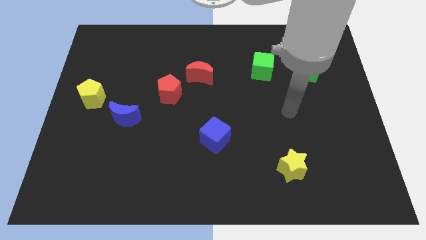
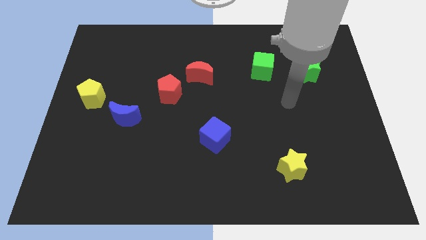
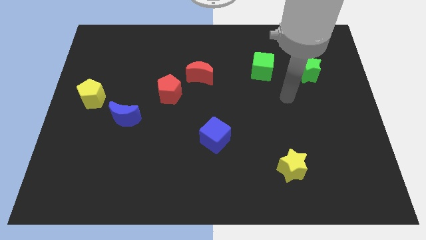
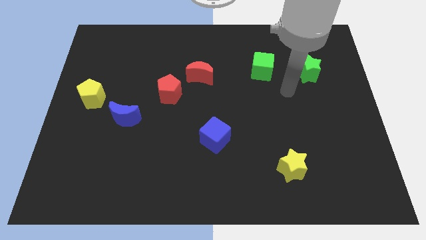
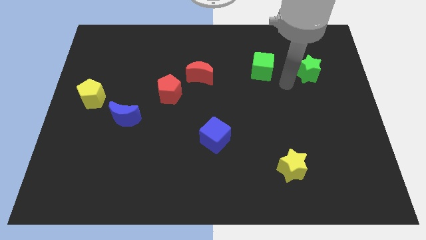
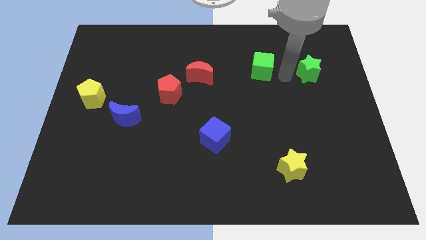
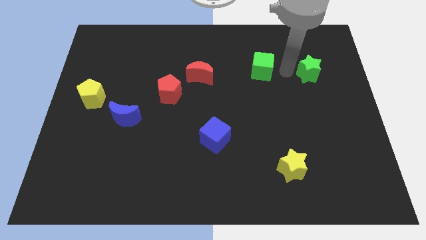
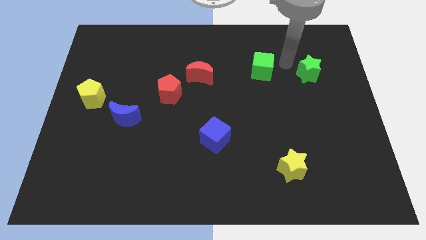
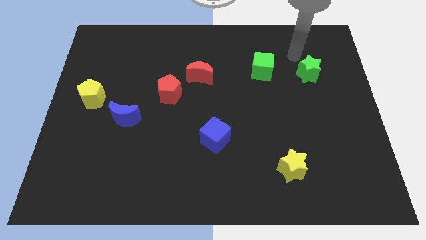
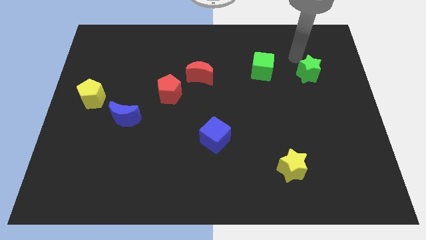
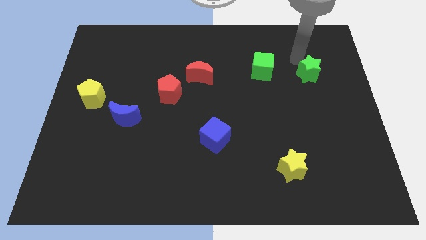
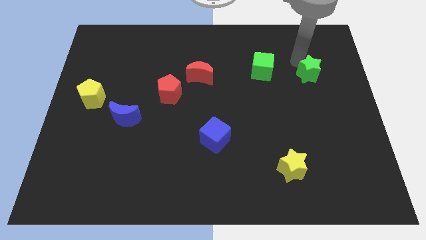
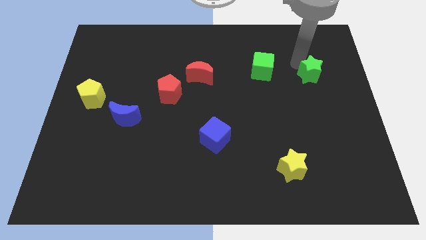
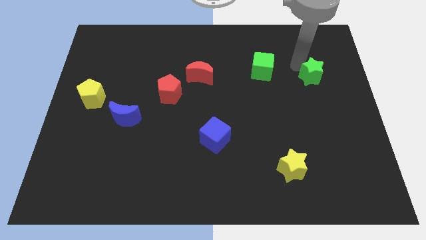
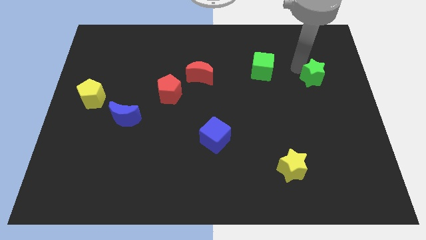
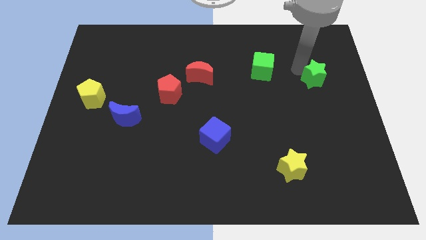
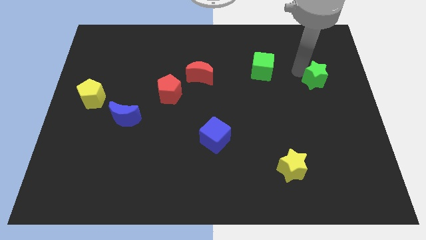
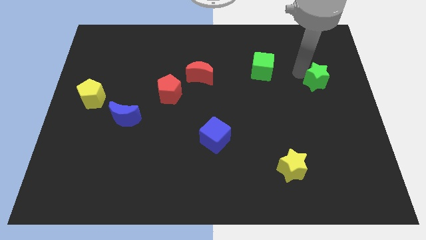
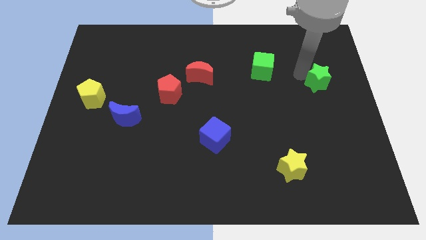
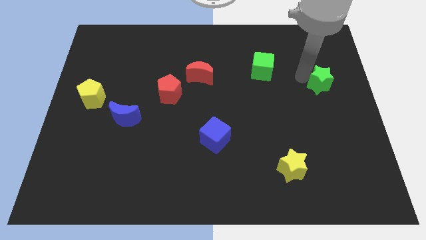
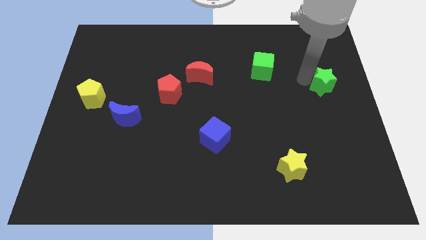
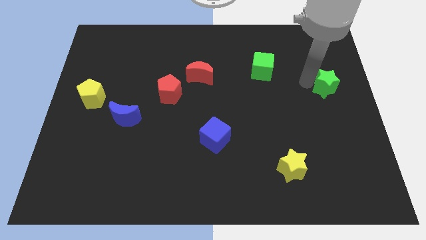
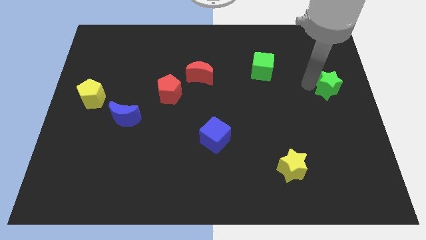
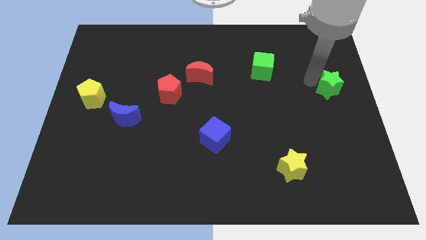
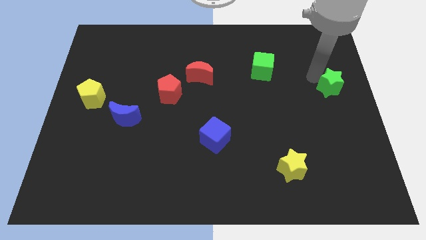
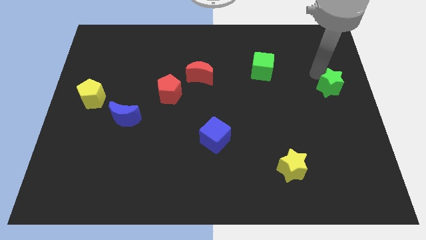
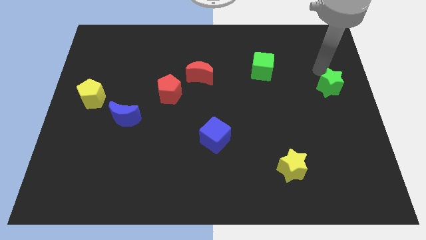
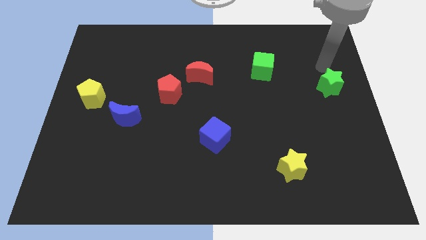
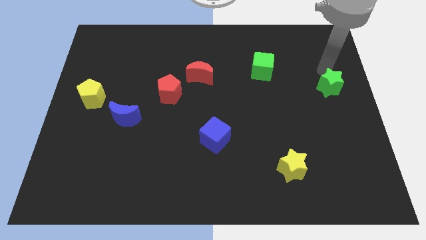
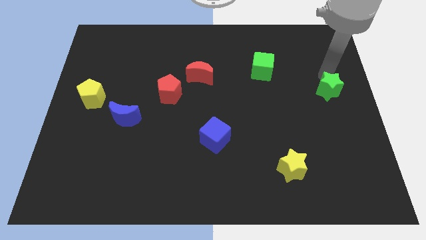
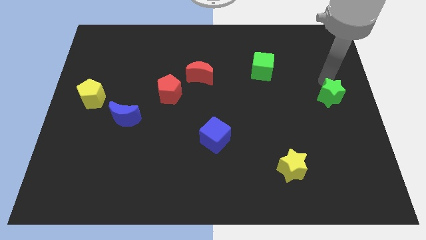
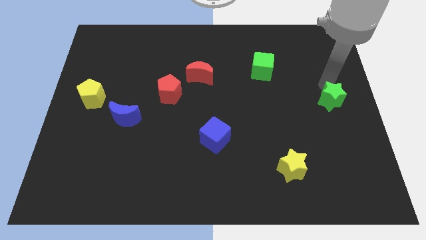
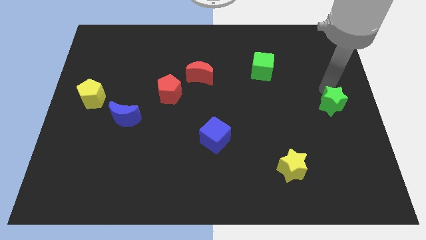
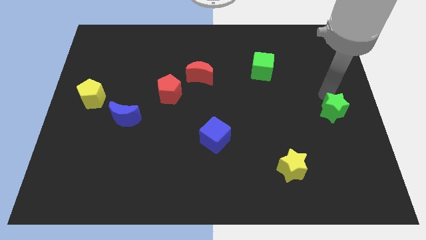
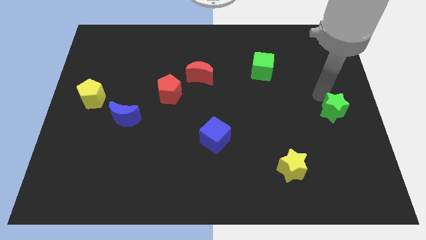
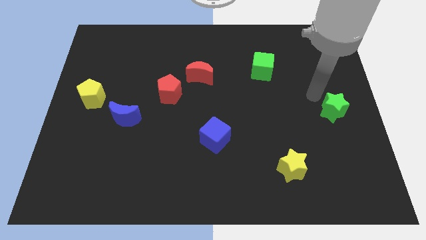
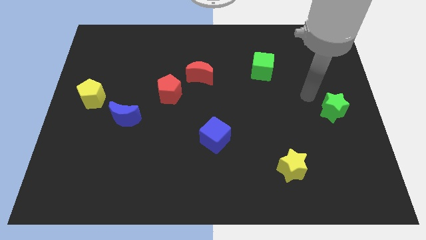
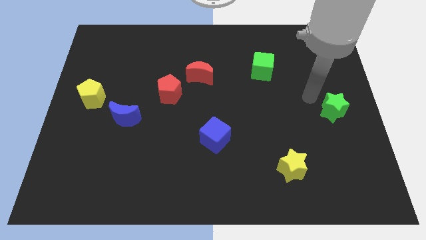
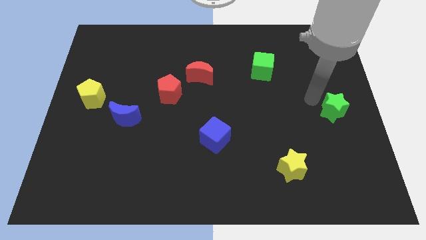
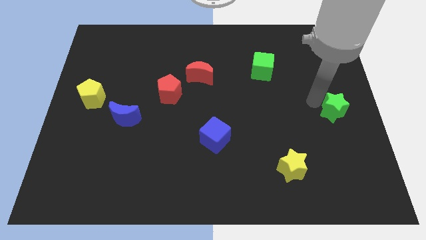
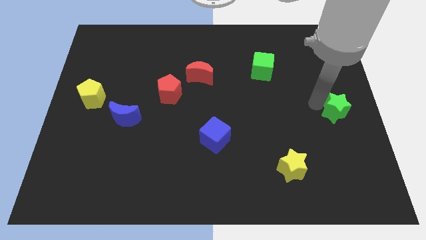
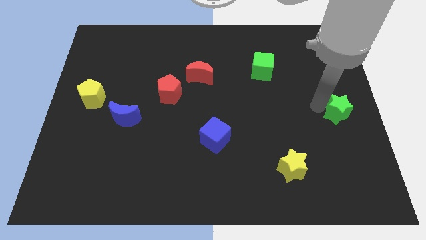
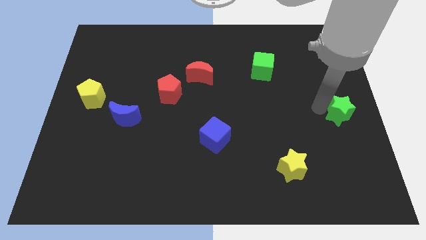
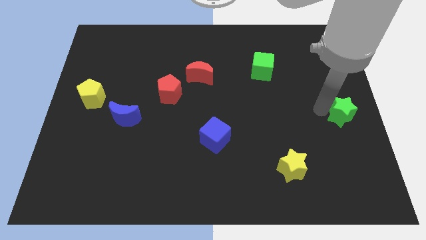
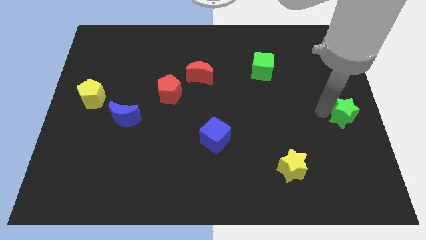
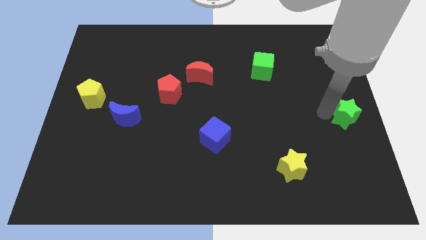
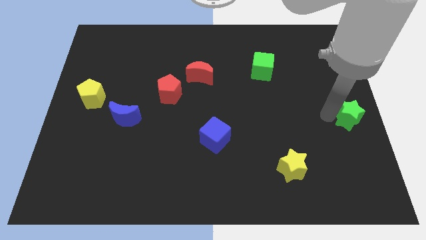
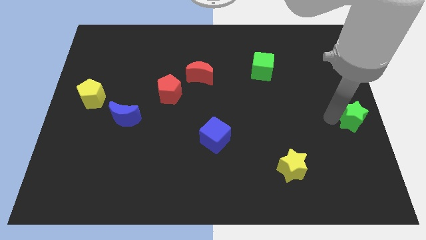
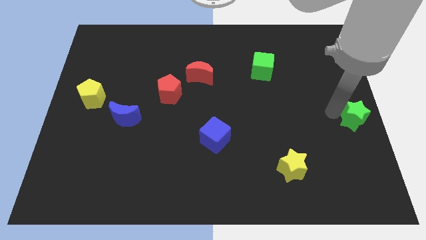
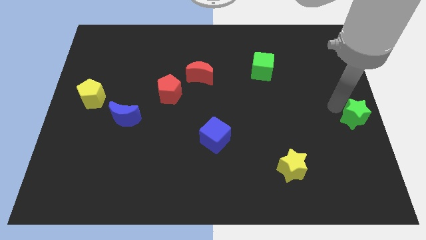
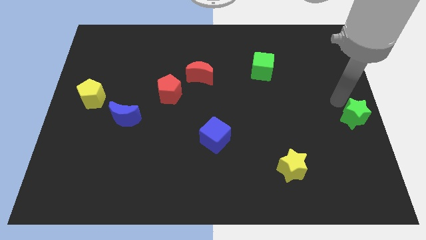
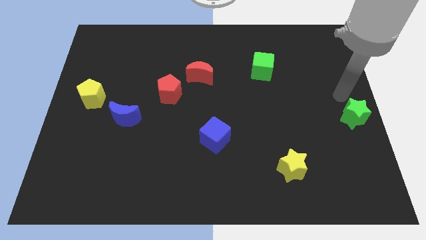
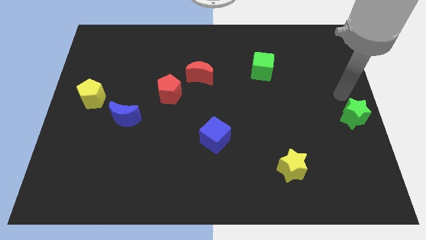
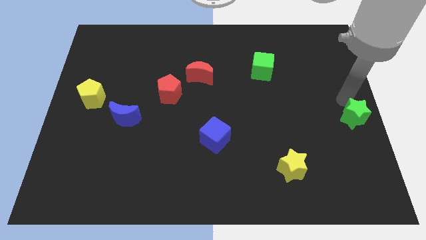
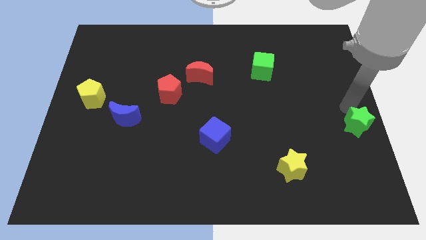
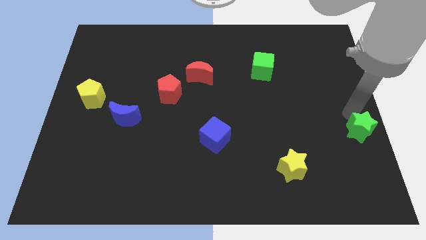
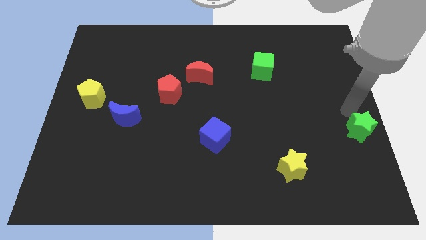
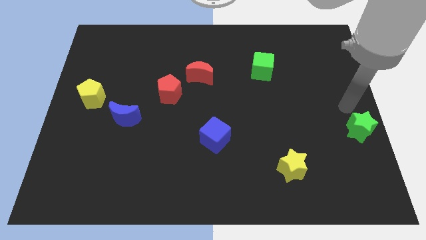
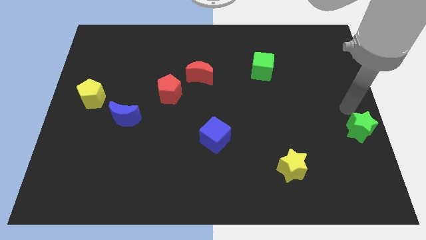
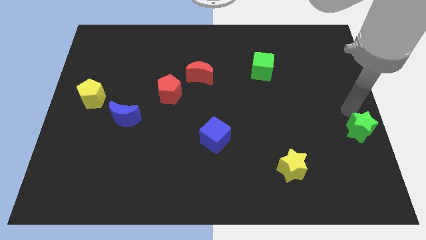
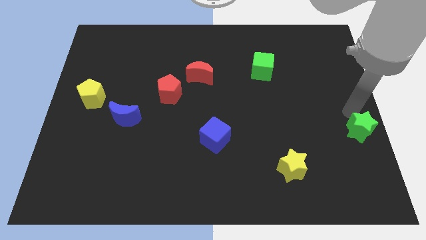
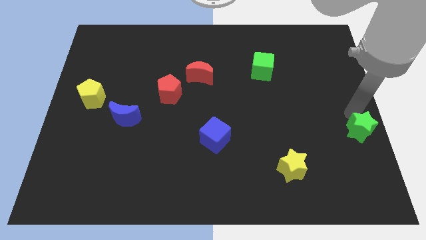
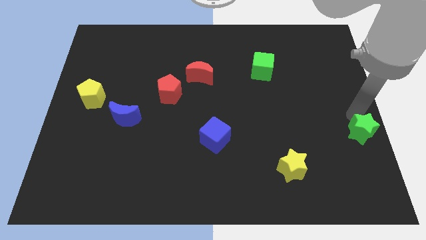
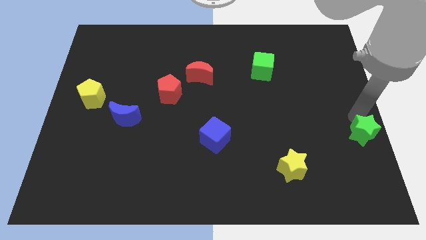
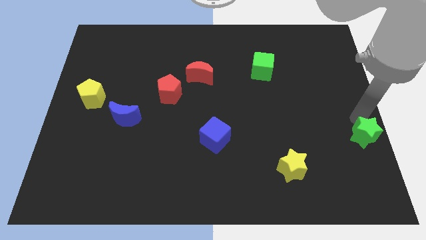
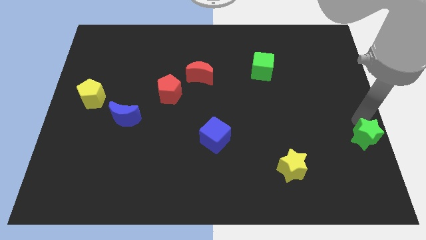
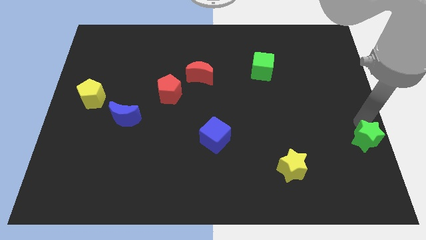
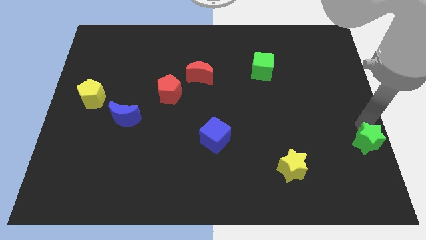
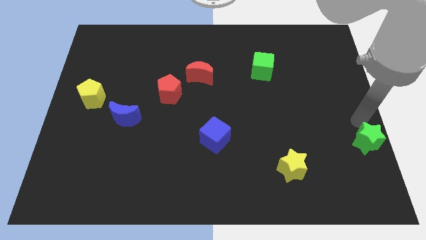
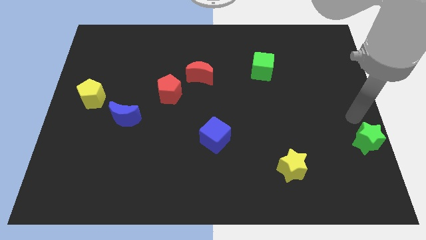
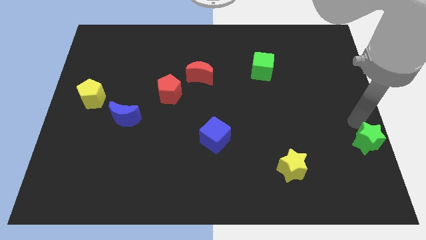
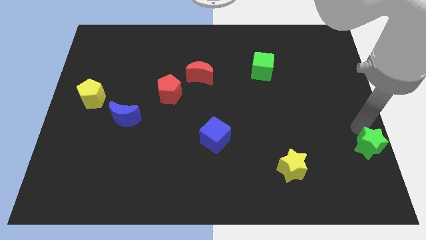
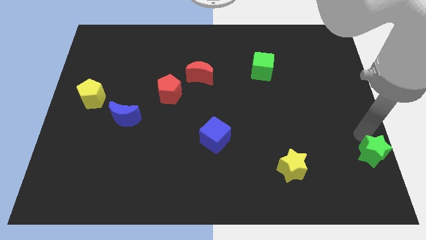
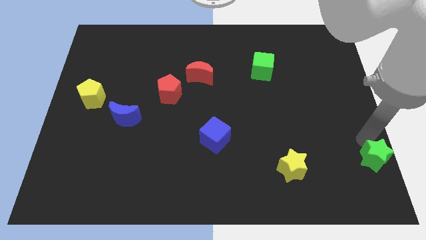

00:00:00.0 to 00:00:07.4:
slide the green star to the bottom right
